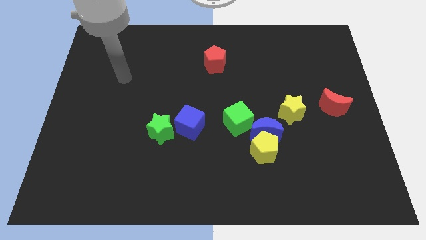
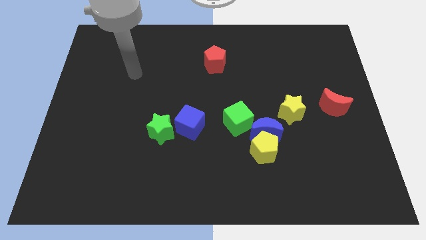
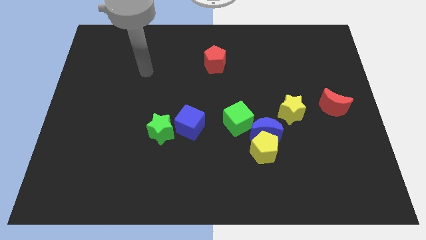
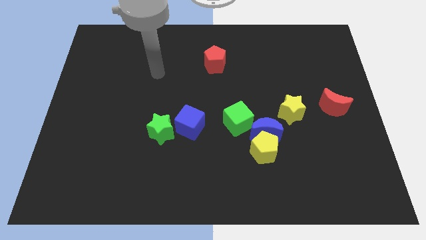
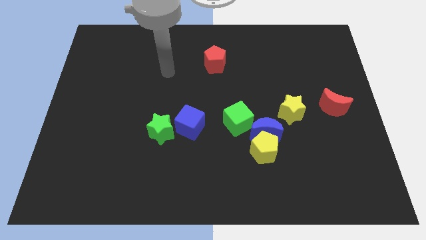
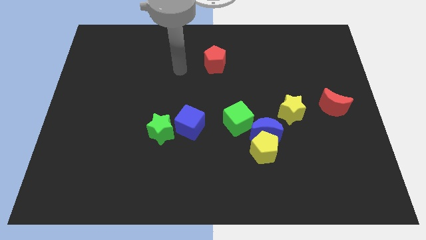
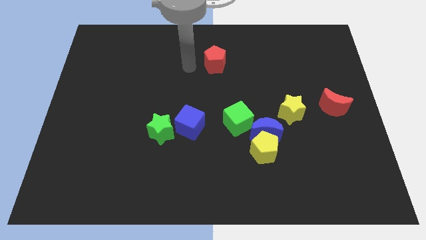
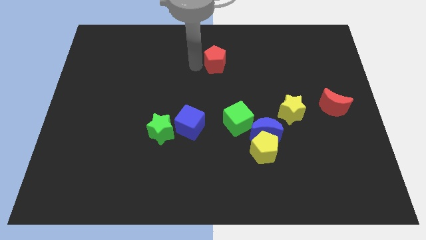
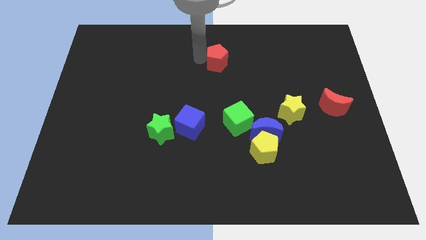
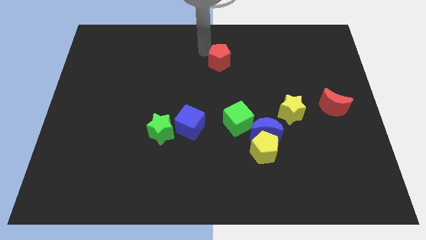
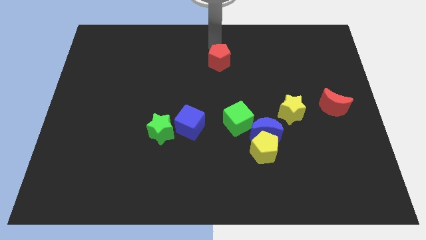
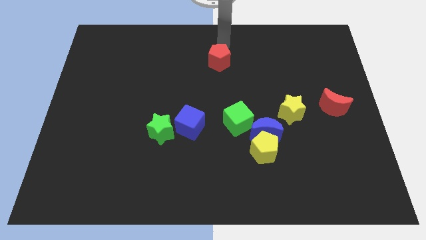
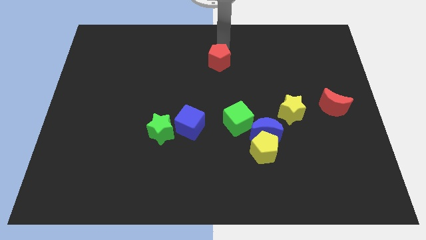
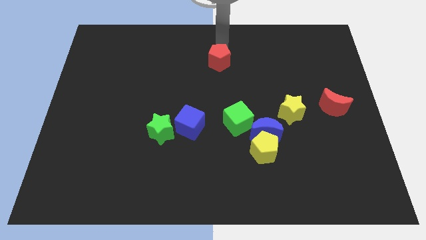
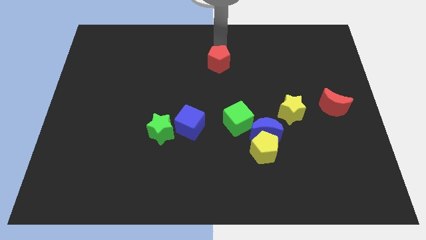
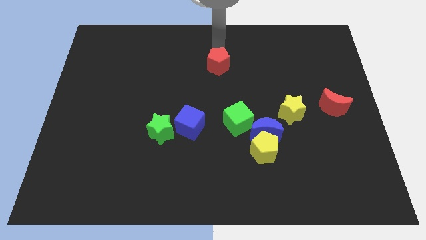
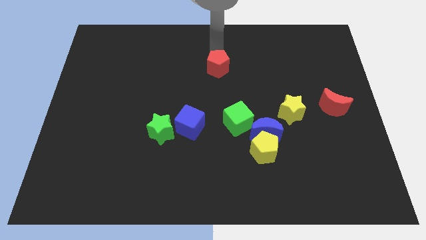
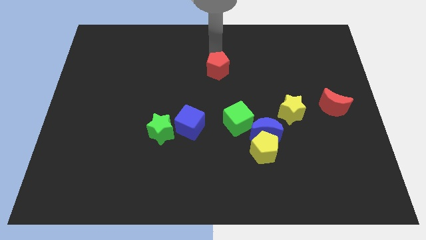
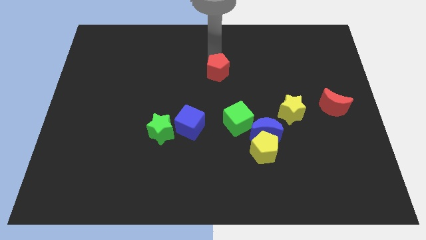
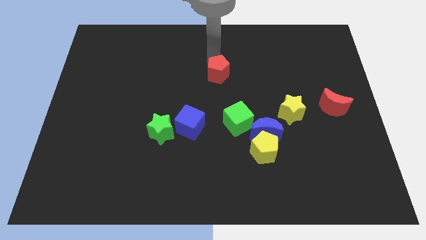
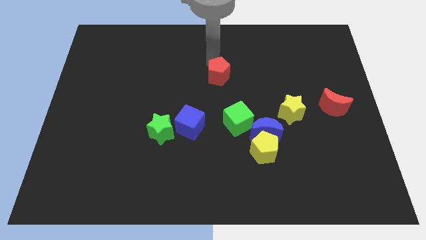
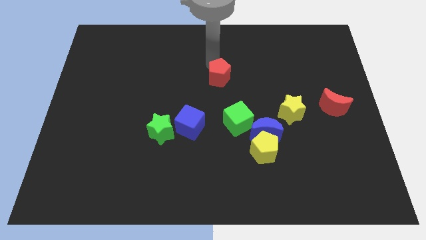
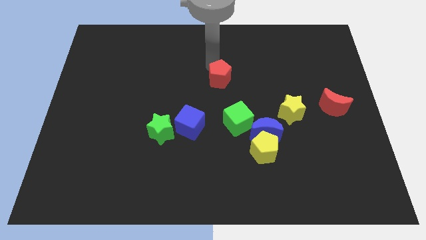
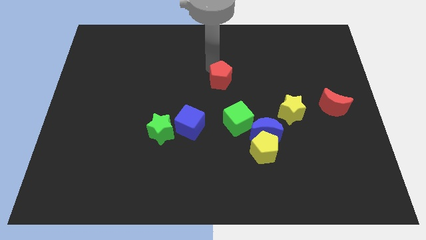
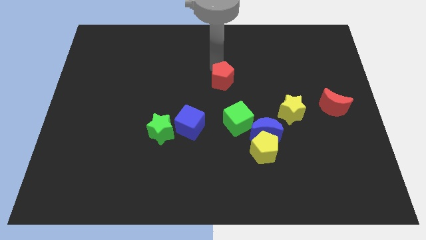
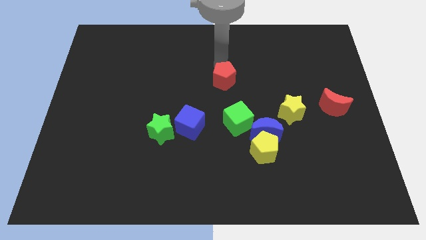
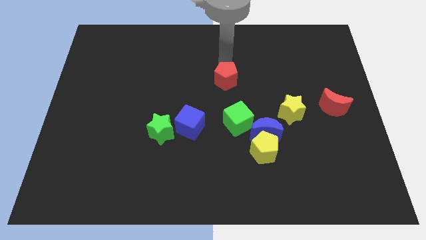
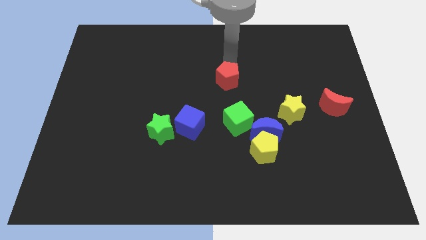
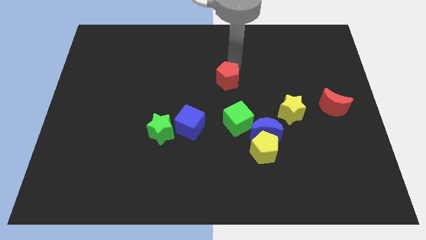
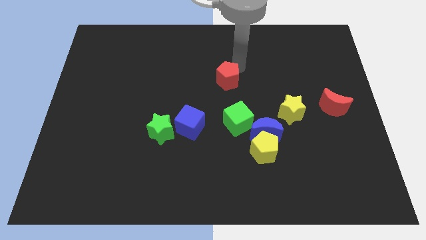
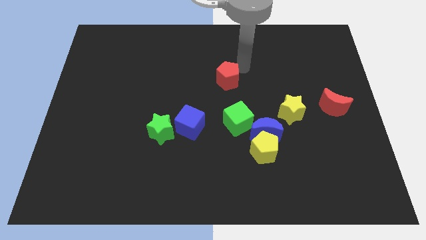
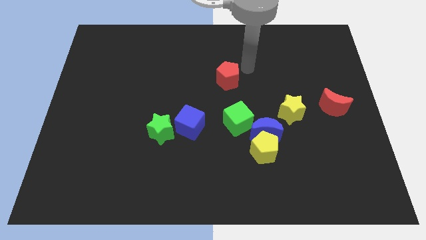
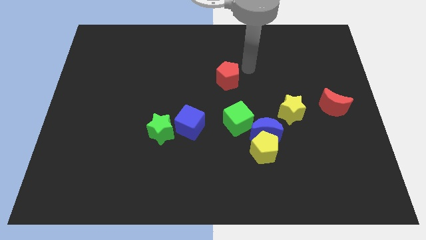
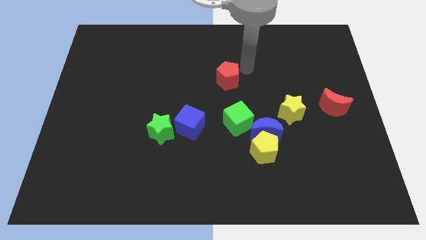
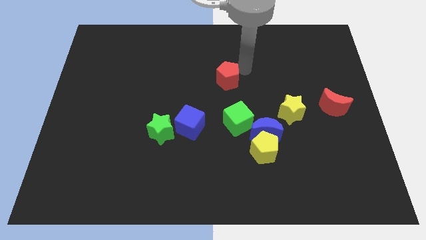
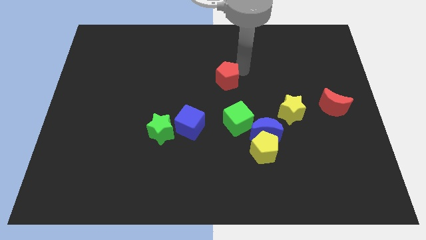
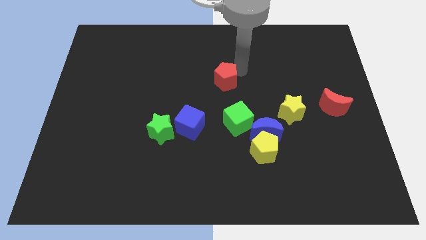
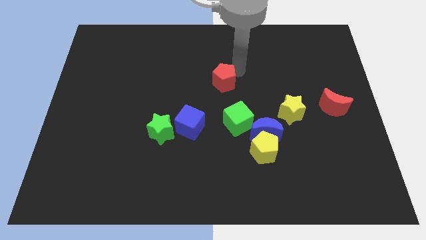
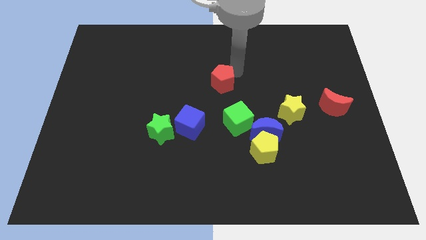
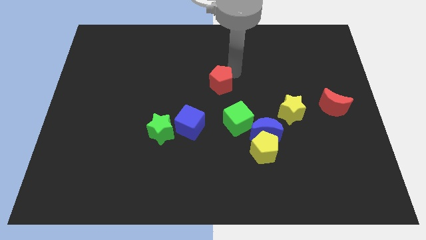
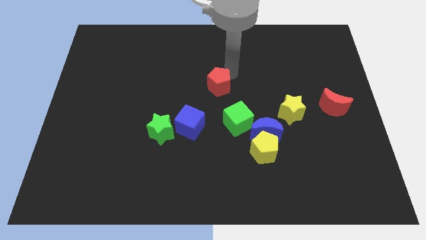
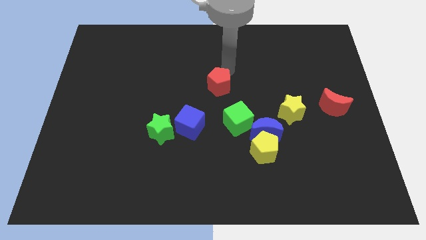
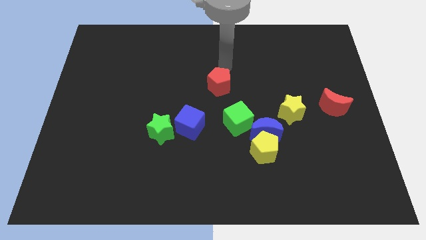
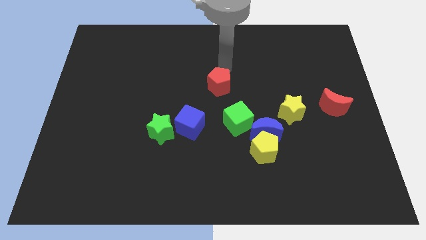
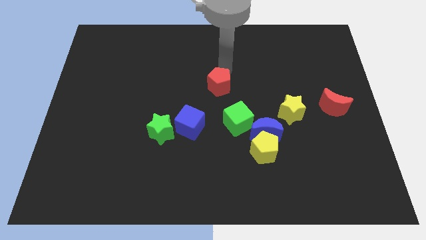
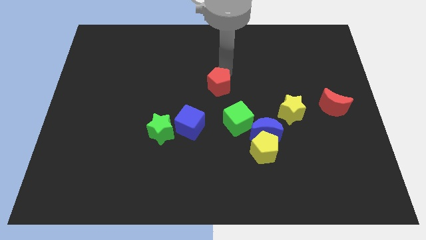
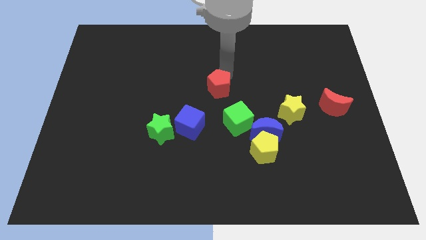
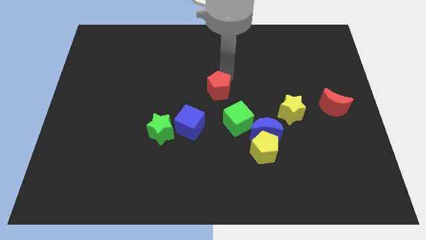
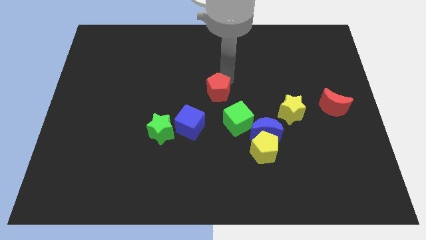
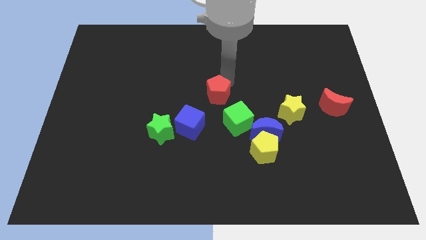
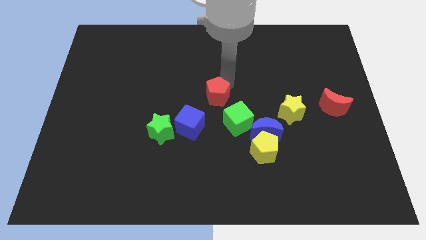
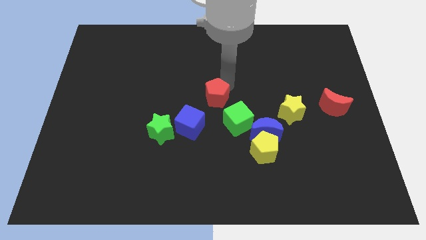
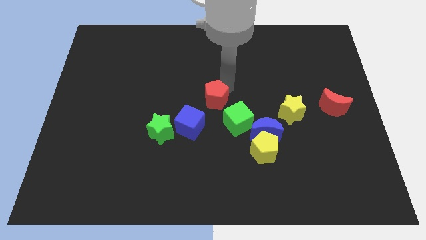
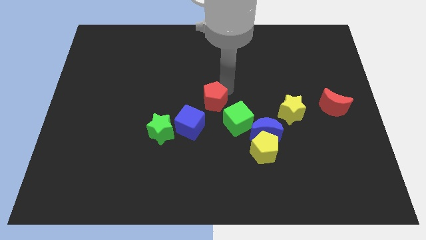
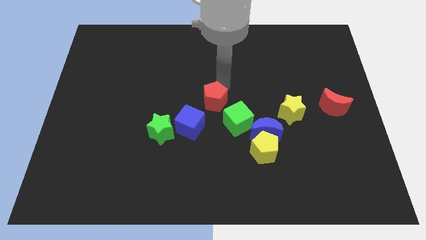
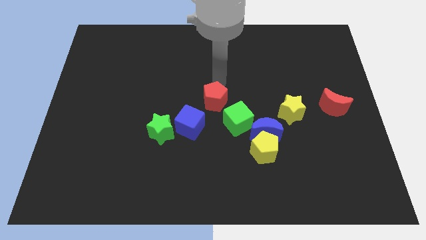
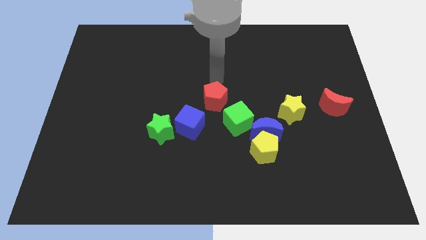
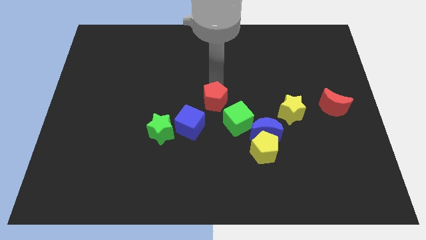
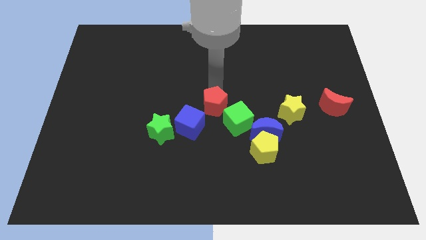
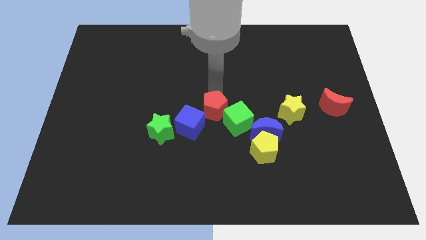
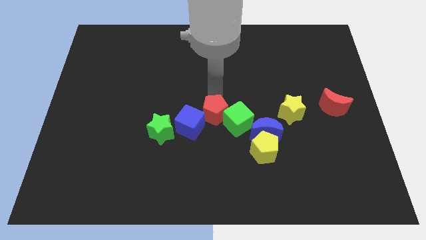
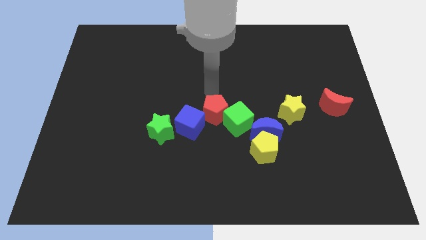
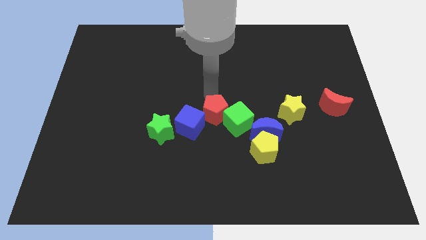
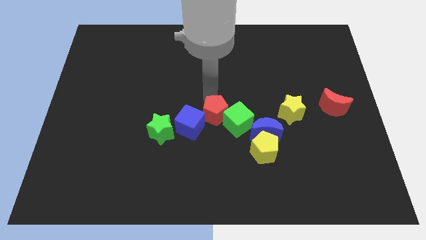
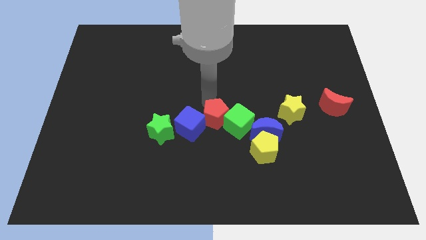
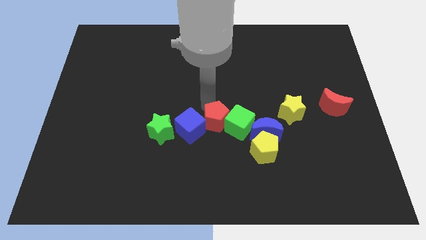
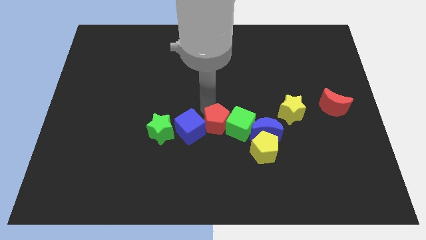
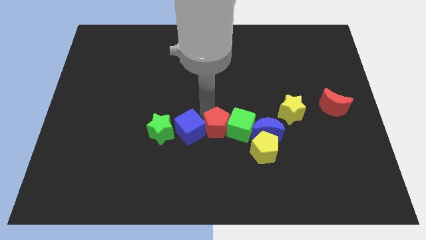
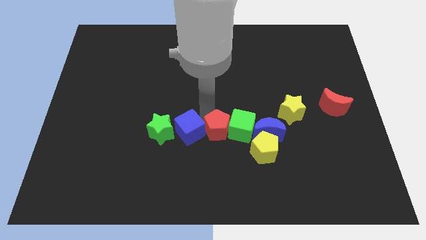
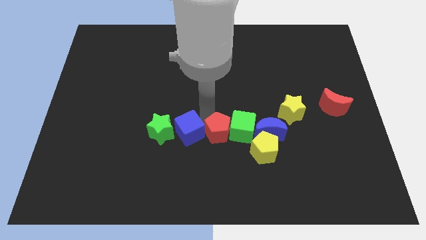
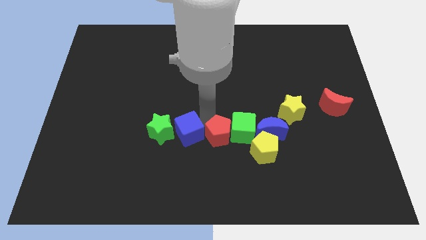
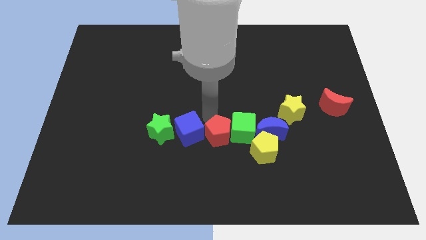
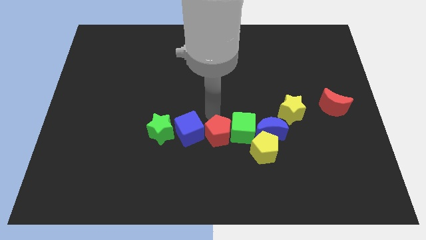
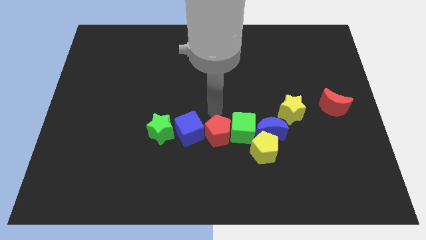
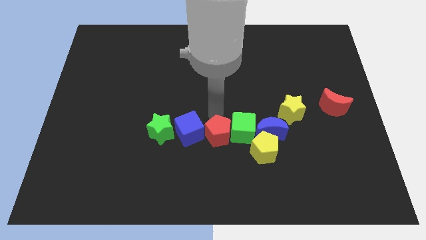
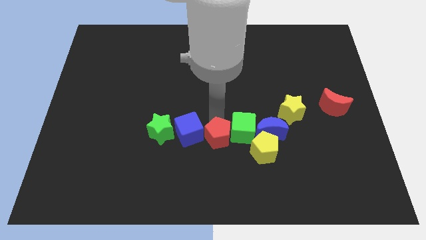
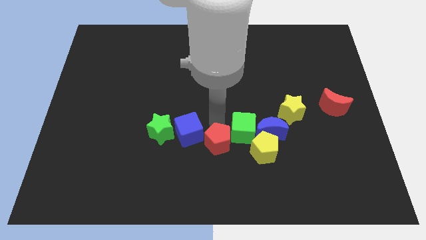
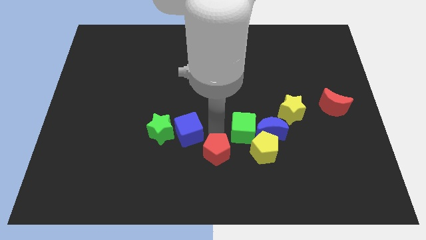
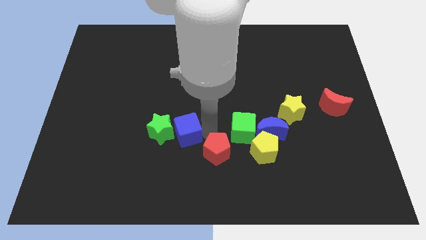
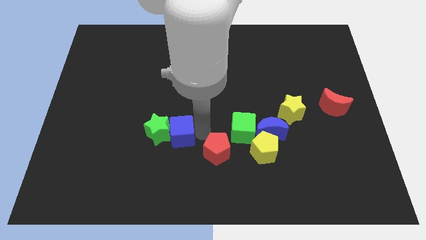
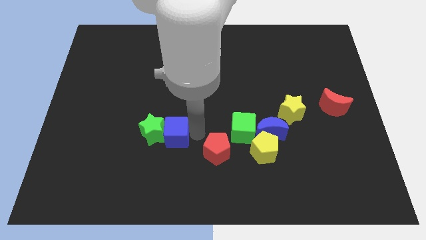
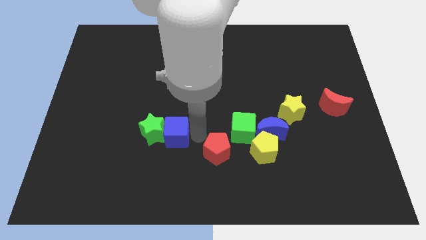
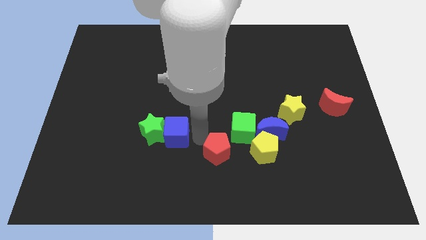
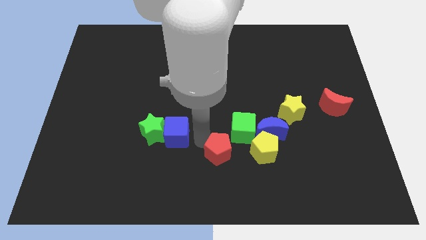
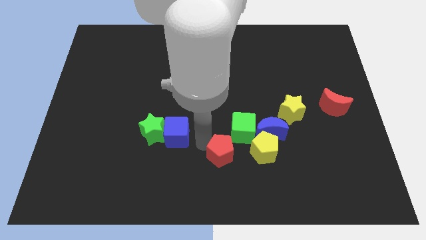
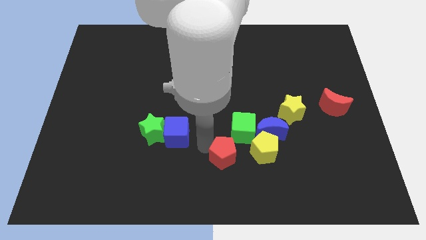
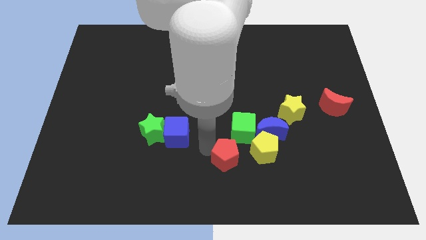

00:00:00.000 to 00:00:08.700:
move the red pentagon to the bottom left side of the yellow pentagon
